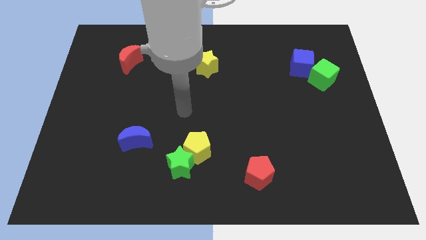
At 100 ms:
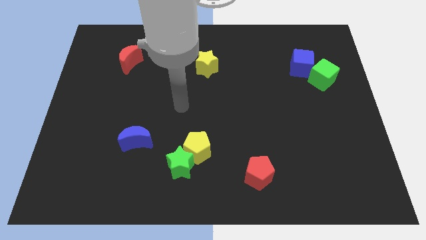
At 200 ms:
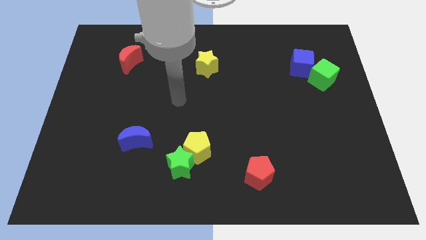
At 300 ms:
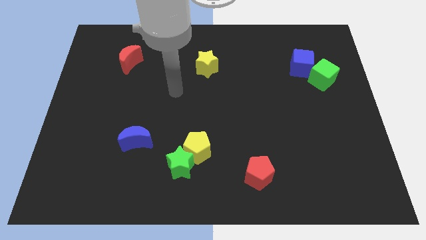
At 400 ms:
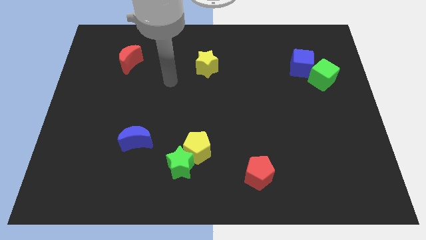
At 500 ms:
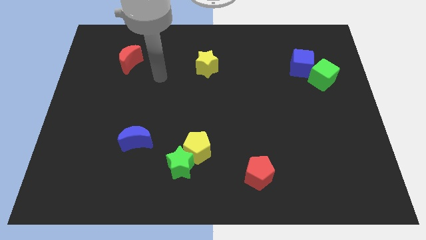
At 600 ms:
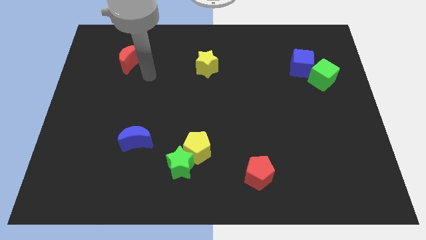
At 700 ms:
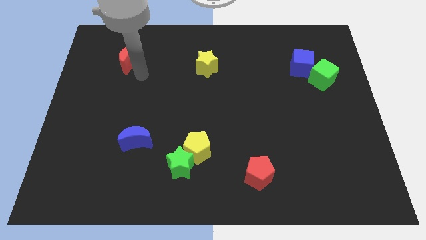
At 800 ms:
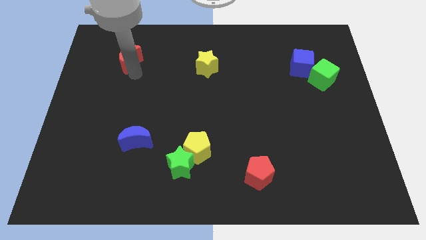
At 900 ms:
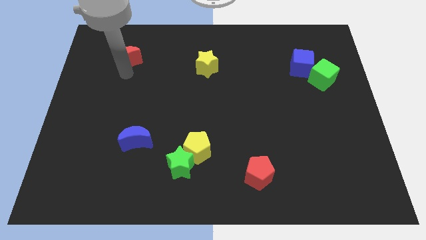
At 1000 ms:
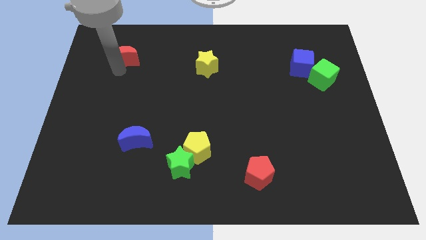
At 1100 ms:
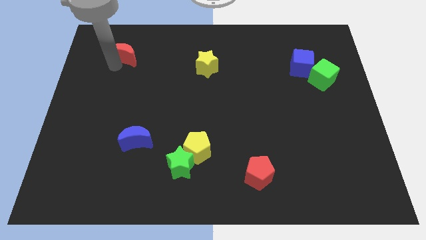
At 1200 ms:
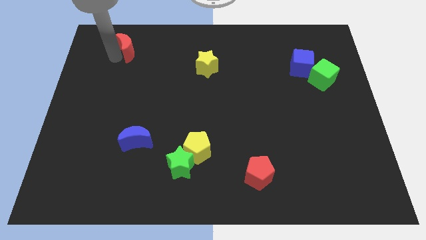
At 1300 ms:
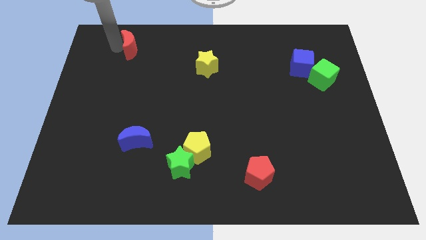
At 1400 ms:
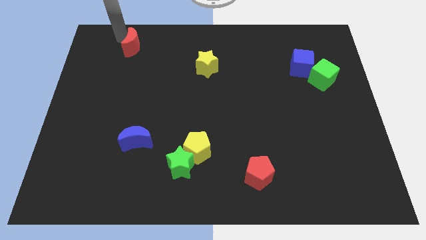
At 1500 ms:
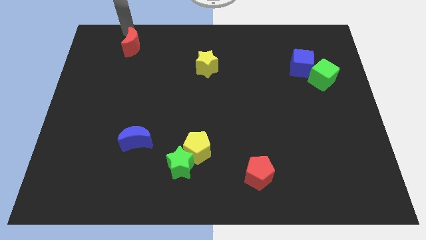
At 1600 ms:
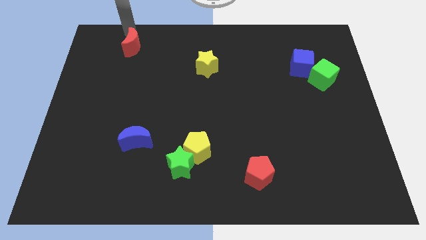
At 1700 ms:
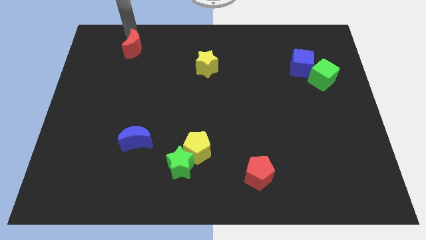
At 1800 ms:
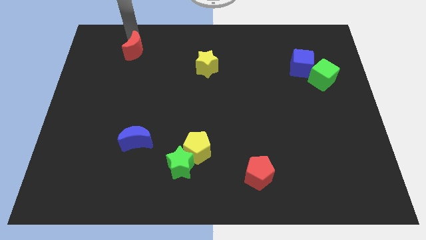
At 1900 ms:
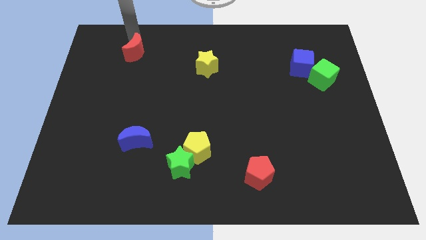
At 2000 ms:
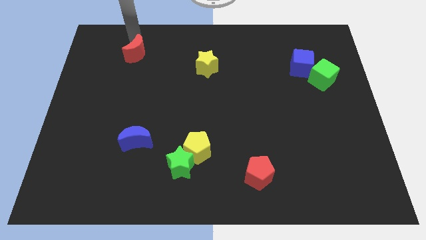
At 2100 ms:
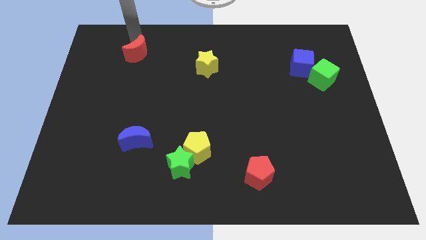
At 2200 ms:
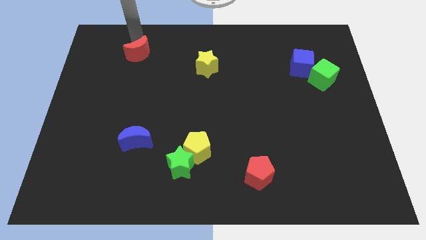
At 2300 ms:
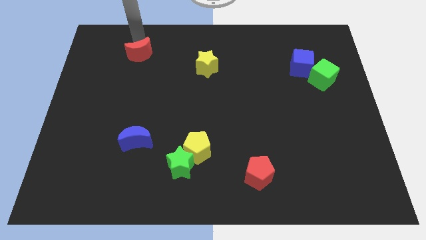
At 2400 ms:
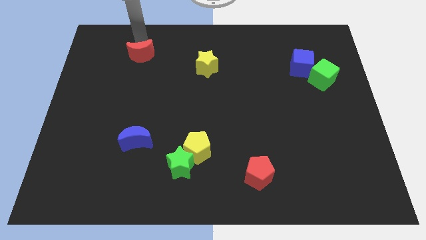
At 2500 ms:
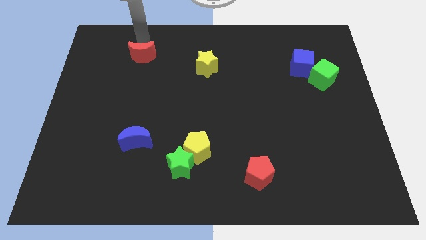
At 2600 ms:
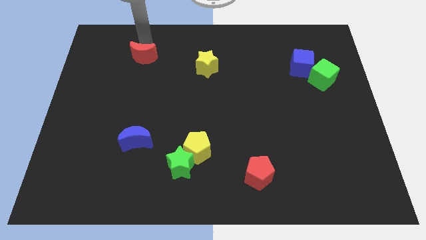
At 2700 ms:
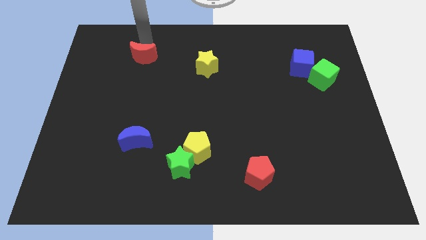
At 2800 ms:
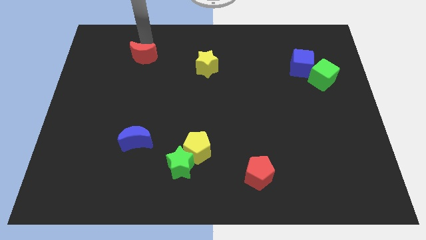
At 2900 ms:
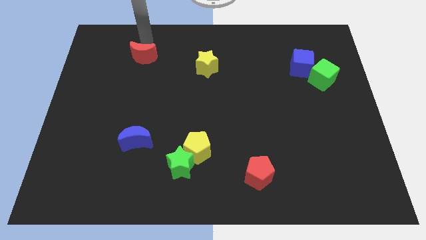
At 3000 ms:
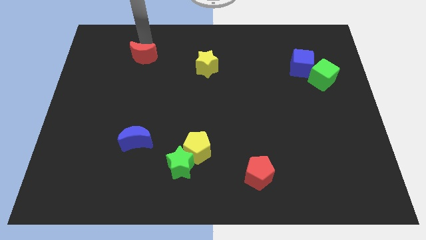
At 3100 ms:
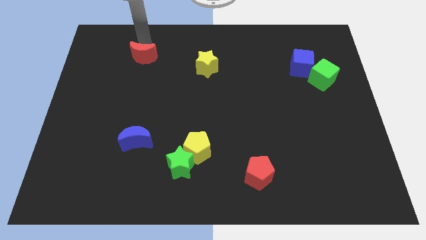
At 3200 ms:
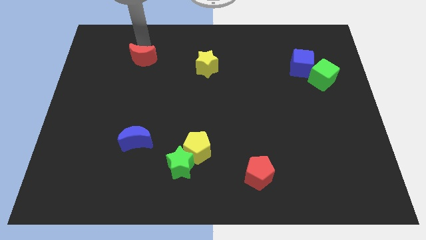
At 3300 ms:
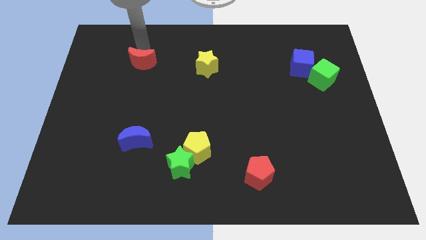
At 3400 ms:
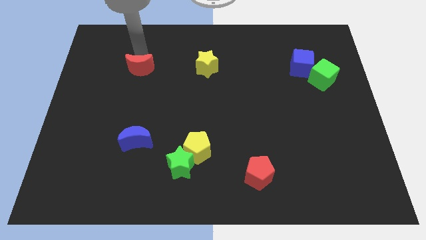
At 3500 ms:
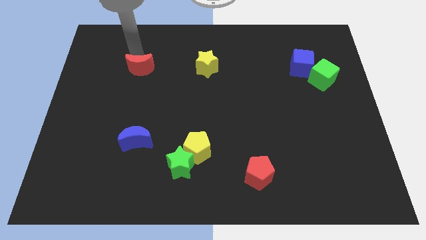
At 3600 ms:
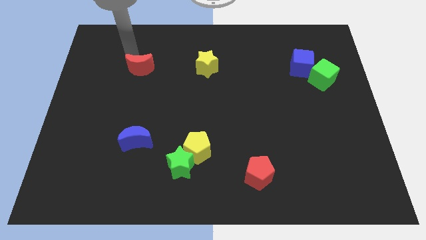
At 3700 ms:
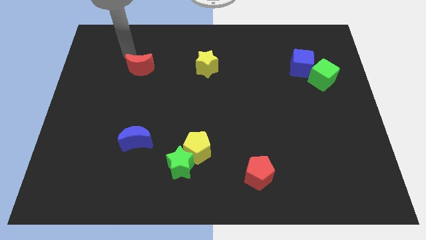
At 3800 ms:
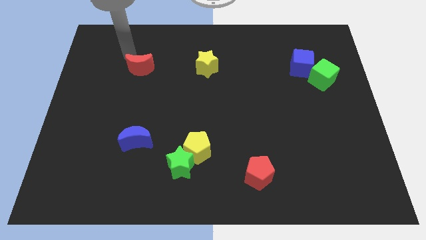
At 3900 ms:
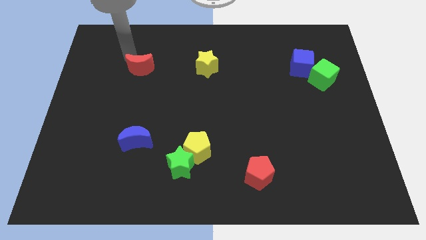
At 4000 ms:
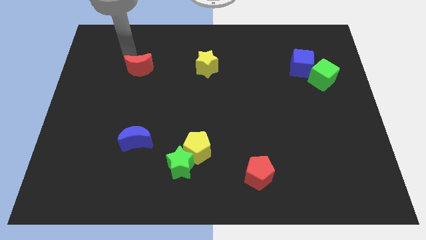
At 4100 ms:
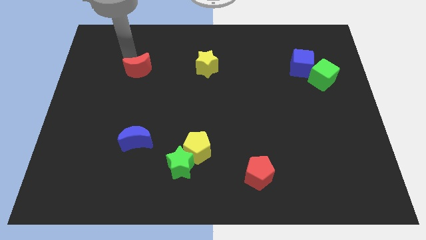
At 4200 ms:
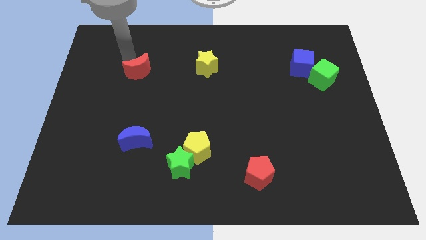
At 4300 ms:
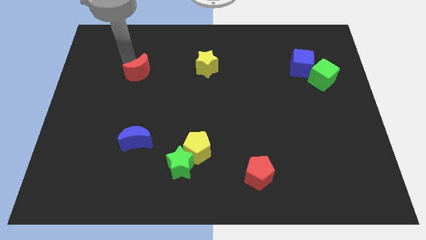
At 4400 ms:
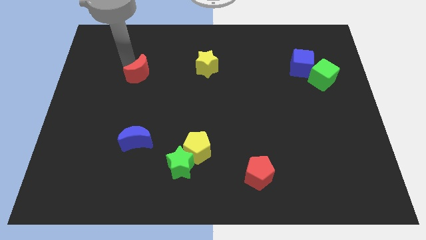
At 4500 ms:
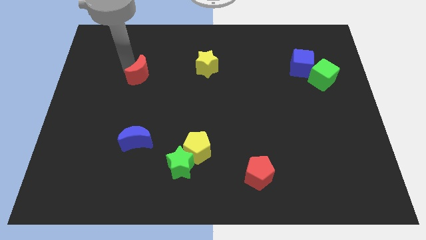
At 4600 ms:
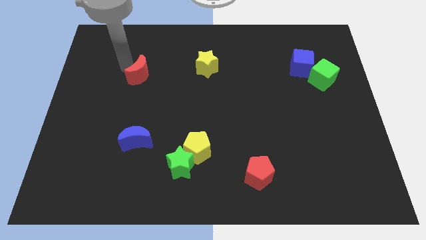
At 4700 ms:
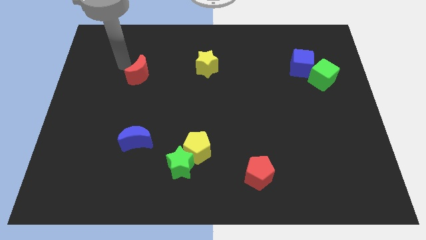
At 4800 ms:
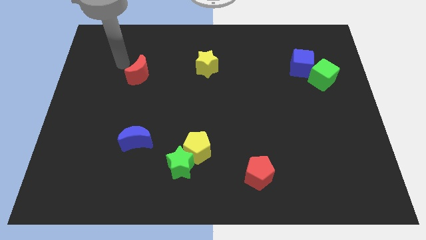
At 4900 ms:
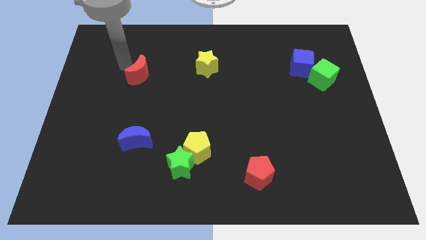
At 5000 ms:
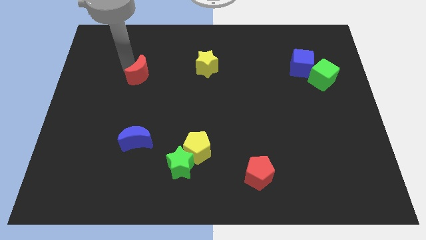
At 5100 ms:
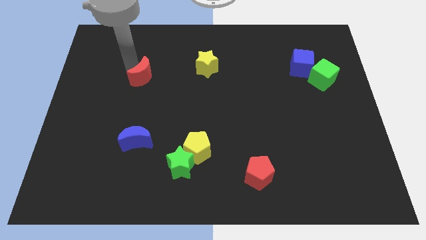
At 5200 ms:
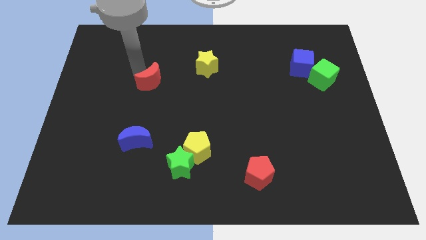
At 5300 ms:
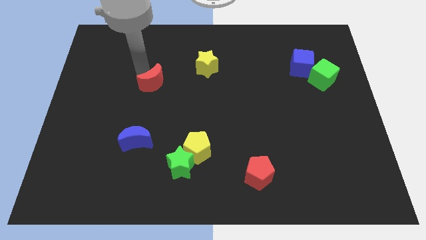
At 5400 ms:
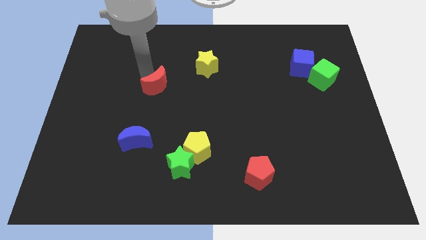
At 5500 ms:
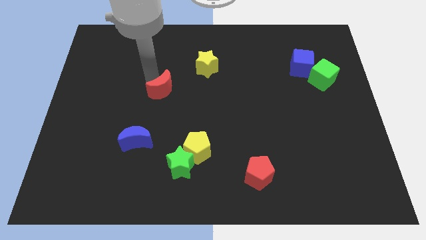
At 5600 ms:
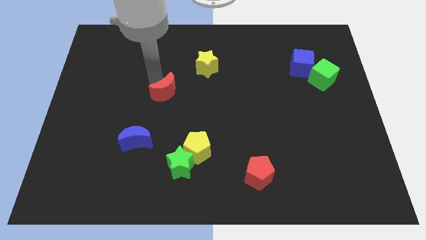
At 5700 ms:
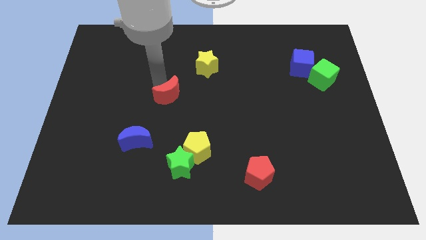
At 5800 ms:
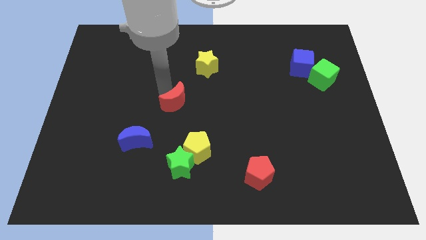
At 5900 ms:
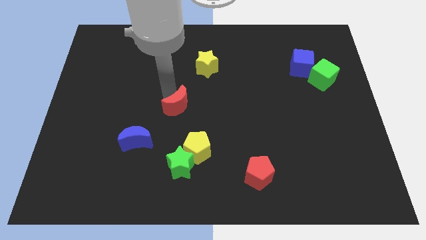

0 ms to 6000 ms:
push the red moon diagonally down and right

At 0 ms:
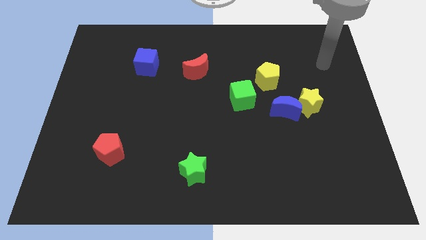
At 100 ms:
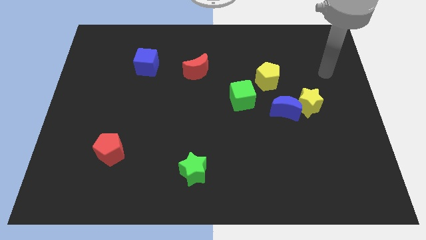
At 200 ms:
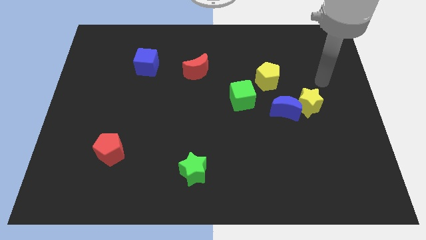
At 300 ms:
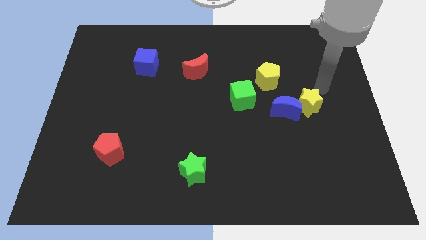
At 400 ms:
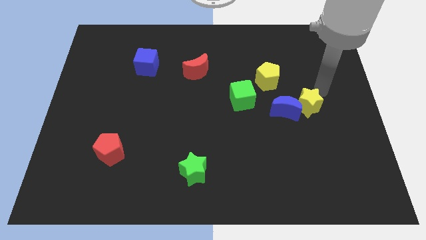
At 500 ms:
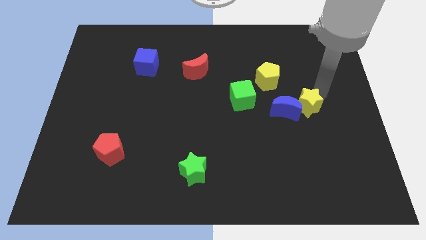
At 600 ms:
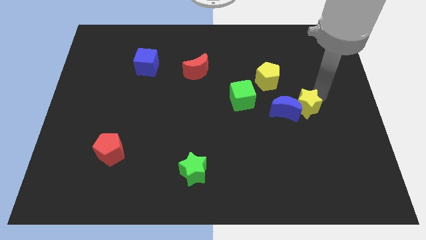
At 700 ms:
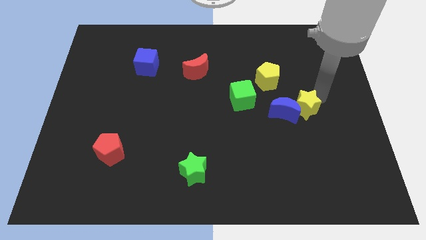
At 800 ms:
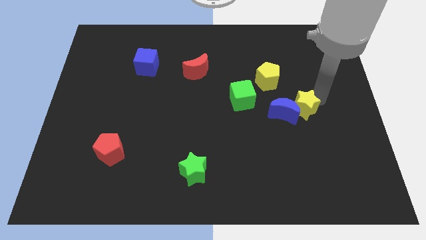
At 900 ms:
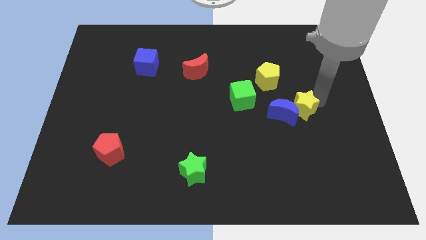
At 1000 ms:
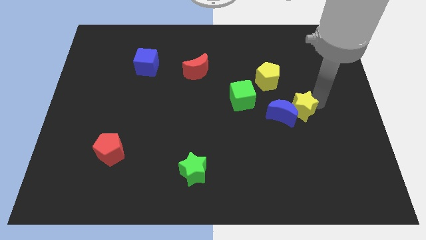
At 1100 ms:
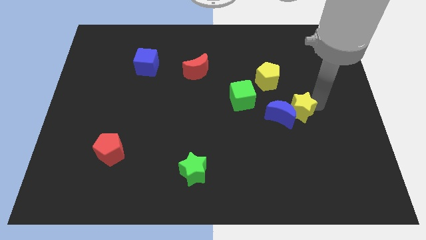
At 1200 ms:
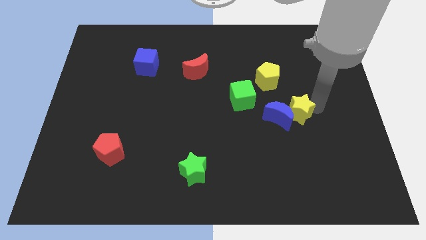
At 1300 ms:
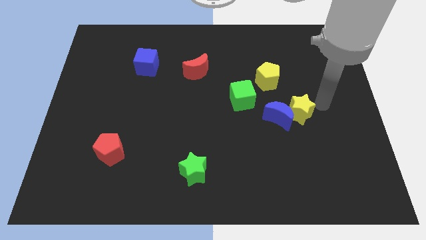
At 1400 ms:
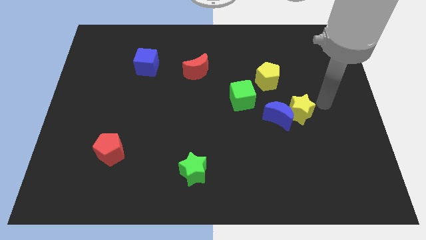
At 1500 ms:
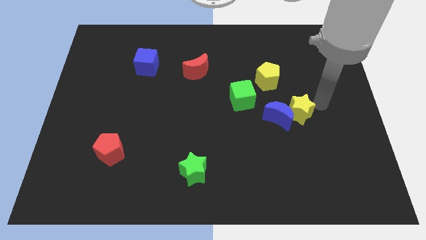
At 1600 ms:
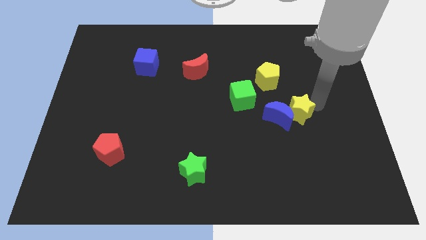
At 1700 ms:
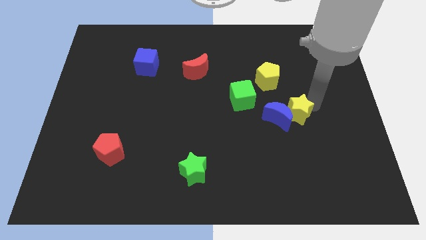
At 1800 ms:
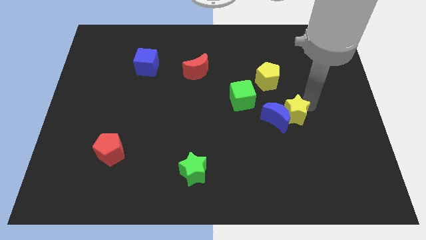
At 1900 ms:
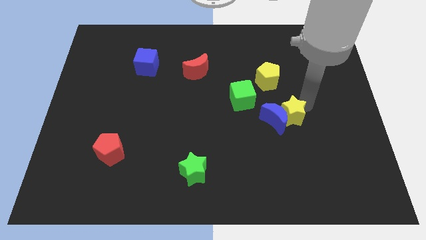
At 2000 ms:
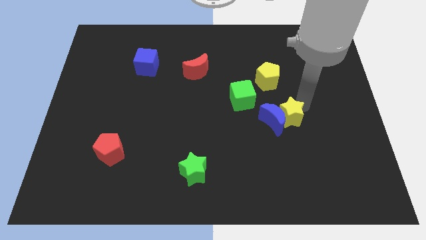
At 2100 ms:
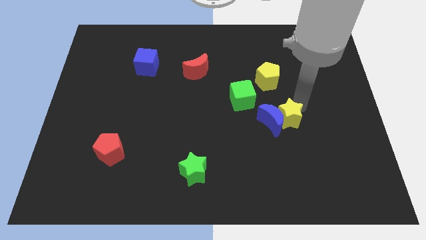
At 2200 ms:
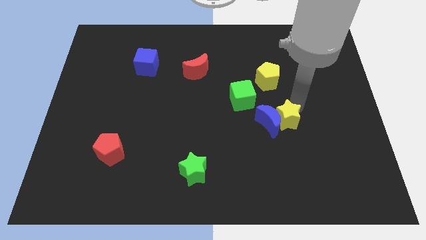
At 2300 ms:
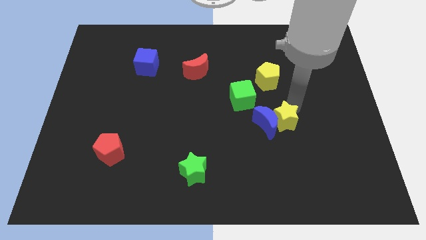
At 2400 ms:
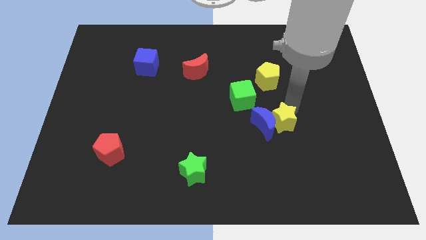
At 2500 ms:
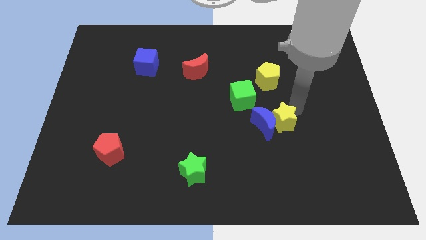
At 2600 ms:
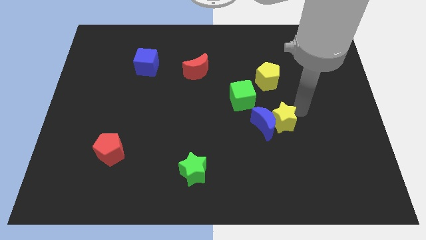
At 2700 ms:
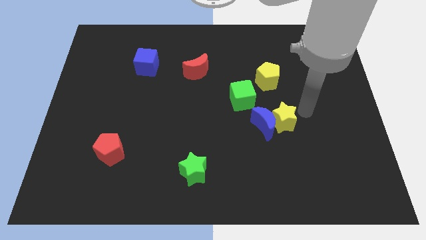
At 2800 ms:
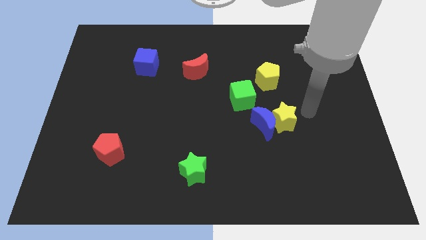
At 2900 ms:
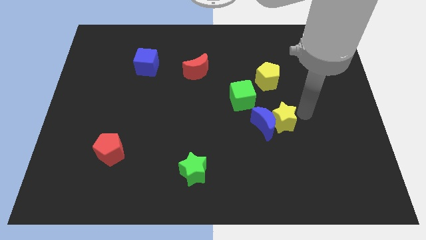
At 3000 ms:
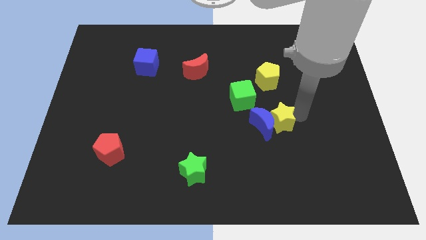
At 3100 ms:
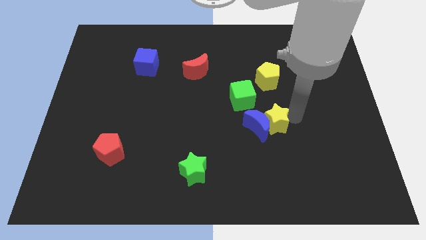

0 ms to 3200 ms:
move the yellow star slightly to the left
